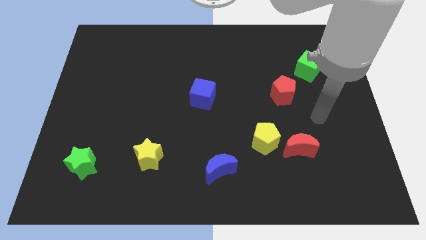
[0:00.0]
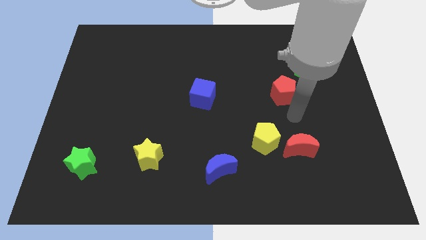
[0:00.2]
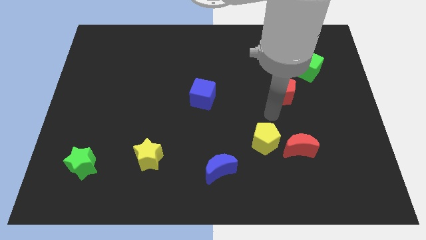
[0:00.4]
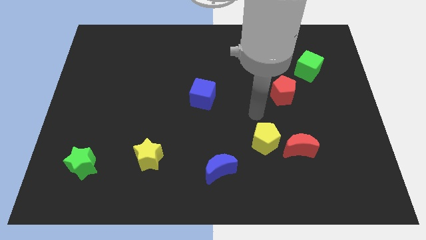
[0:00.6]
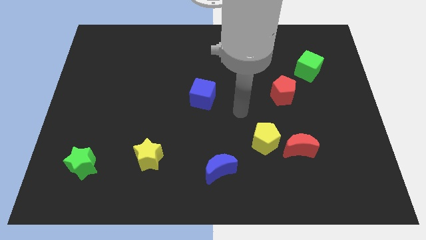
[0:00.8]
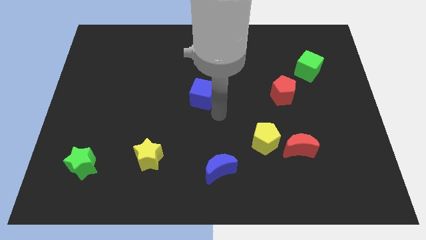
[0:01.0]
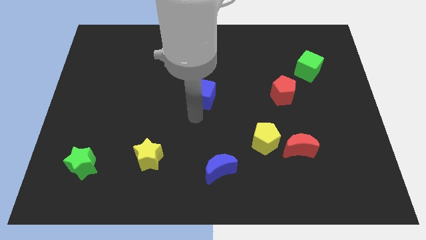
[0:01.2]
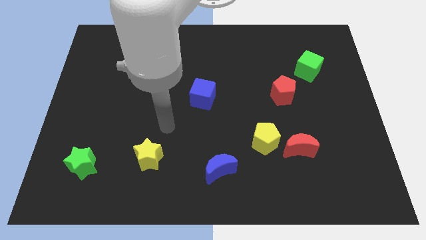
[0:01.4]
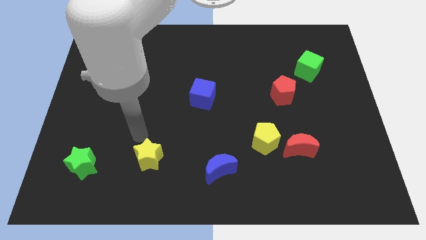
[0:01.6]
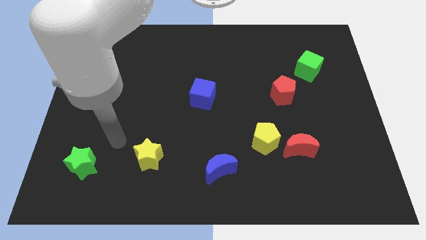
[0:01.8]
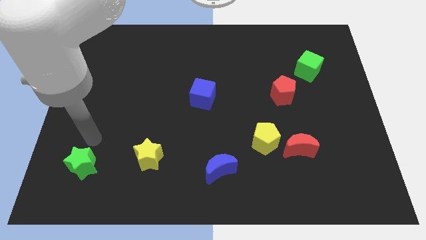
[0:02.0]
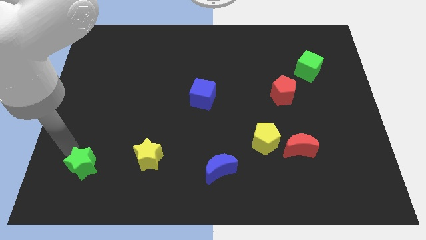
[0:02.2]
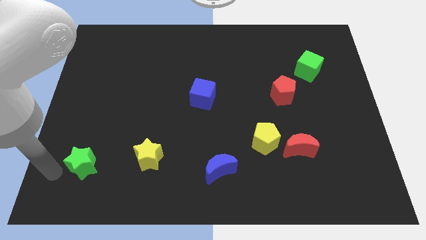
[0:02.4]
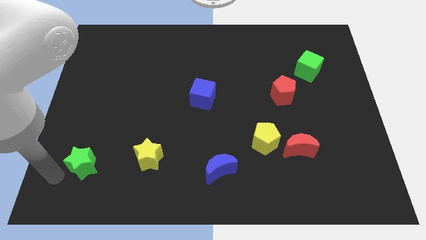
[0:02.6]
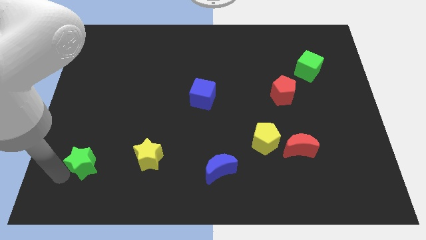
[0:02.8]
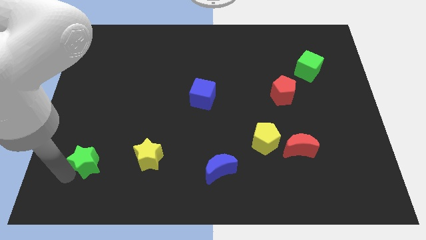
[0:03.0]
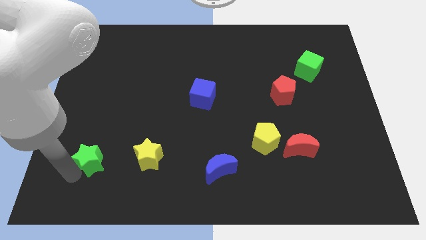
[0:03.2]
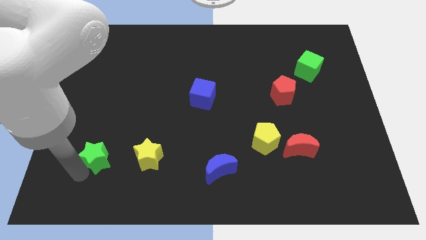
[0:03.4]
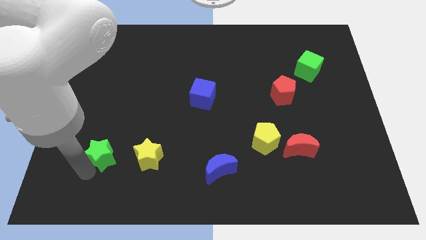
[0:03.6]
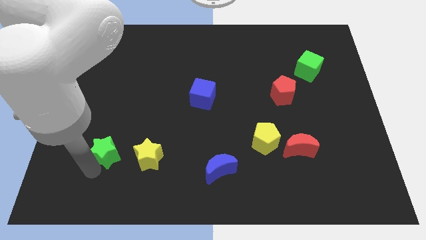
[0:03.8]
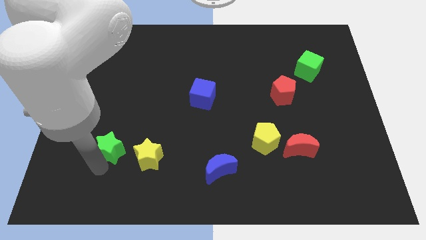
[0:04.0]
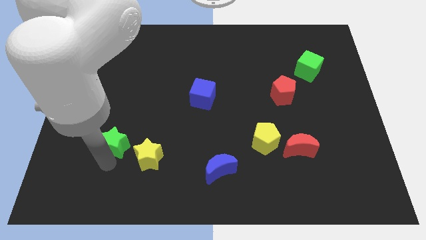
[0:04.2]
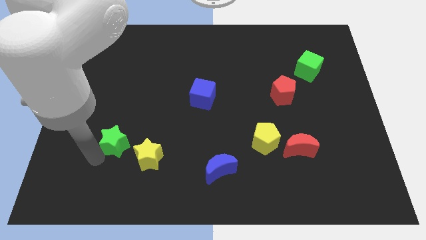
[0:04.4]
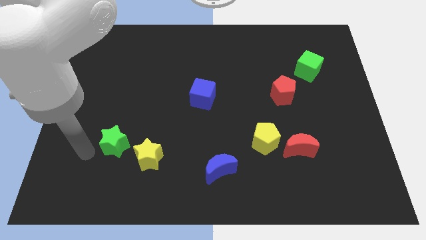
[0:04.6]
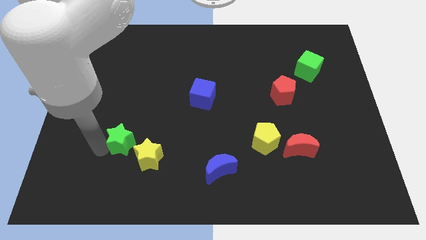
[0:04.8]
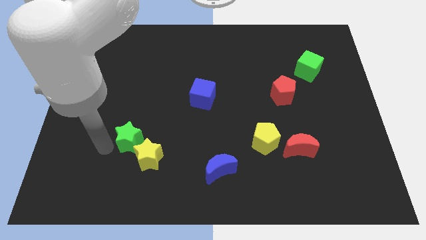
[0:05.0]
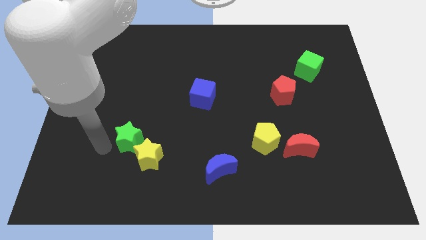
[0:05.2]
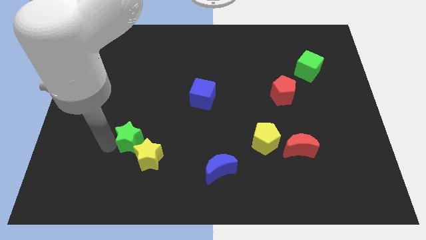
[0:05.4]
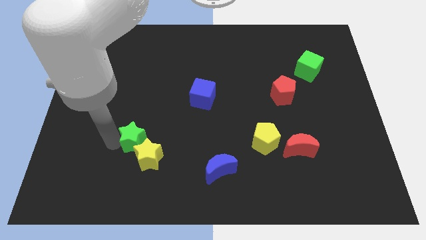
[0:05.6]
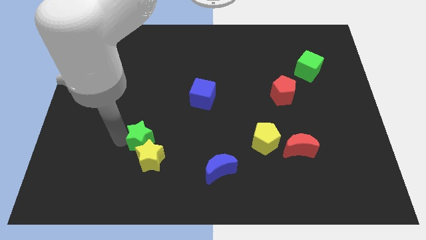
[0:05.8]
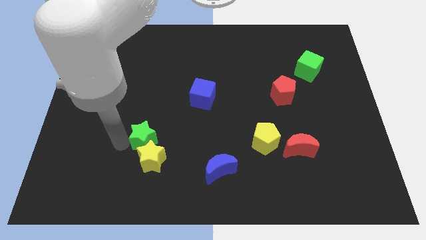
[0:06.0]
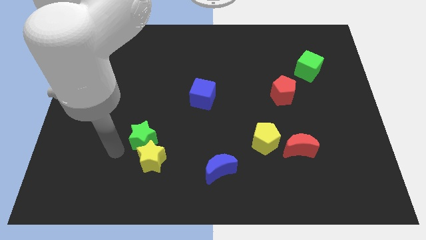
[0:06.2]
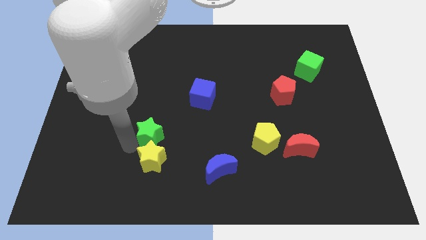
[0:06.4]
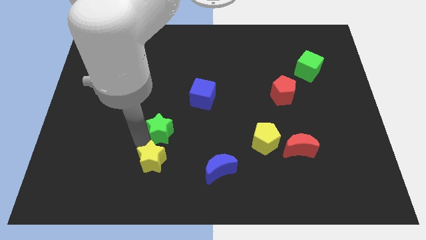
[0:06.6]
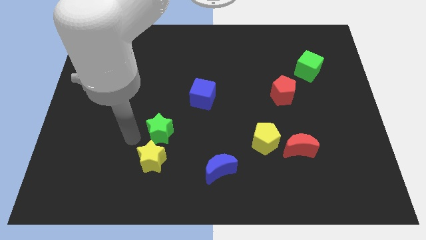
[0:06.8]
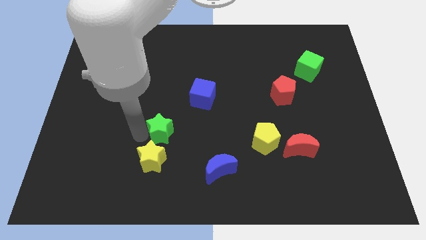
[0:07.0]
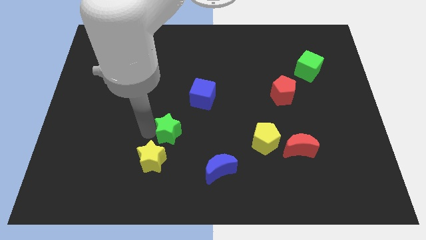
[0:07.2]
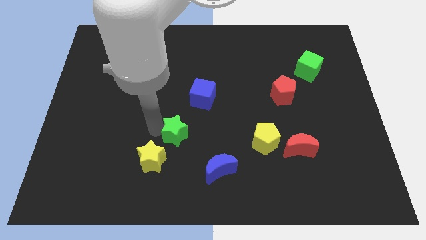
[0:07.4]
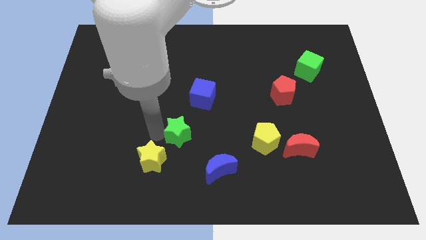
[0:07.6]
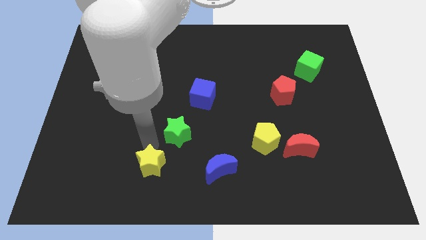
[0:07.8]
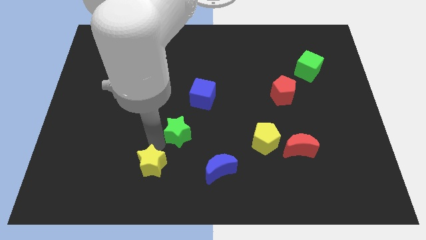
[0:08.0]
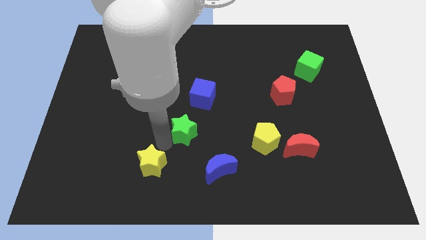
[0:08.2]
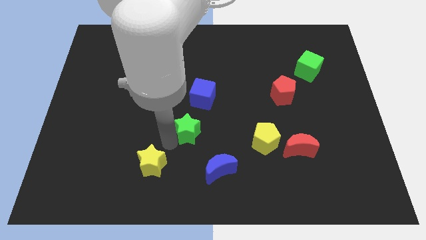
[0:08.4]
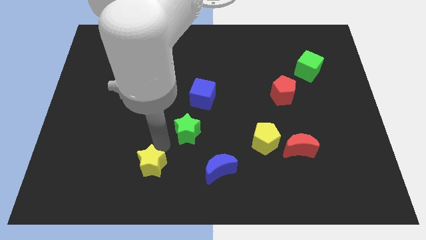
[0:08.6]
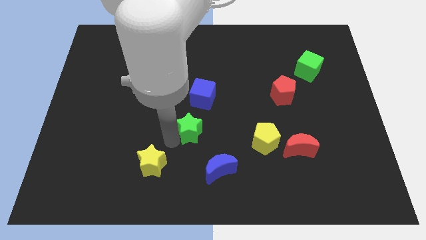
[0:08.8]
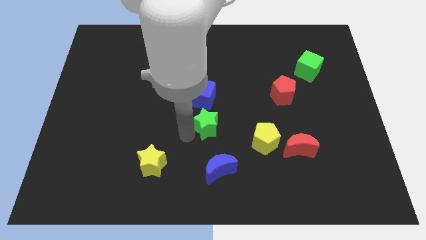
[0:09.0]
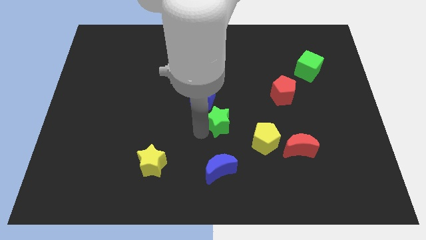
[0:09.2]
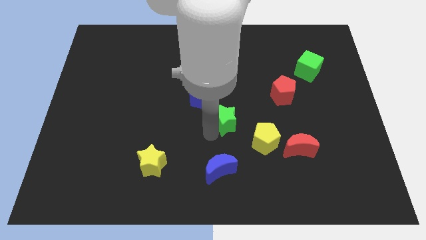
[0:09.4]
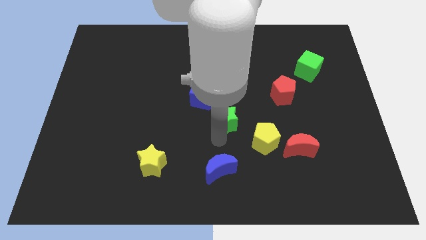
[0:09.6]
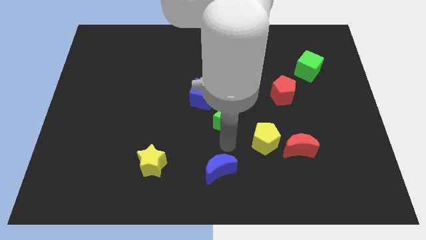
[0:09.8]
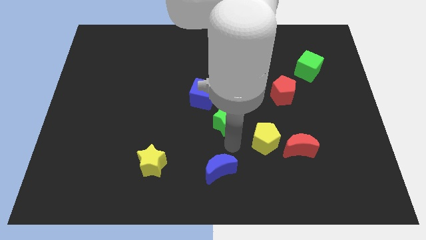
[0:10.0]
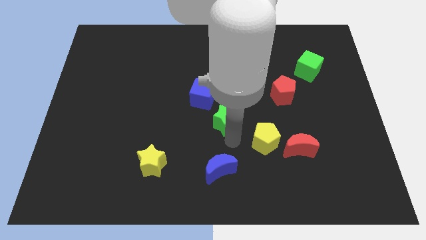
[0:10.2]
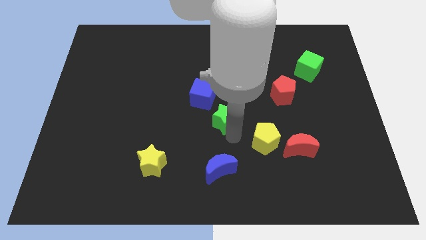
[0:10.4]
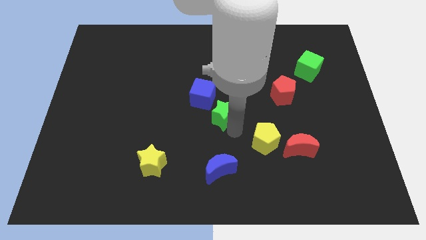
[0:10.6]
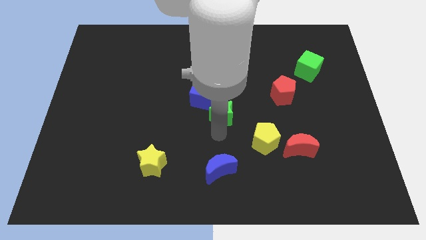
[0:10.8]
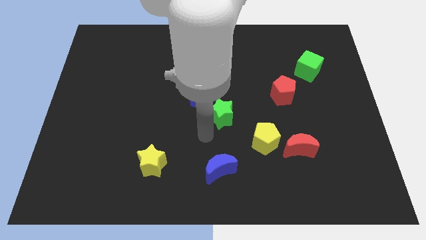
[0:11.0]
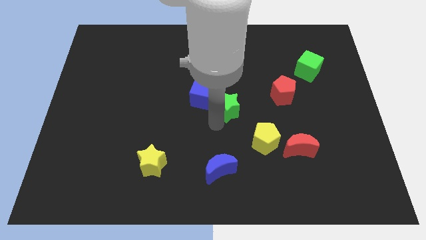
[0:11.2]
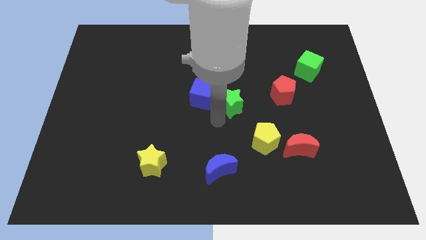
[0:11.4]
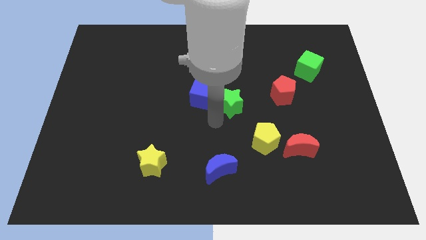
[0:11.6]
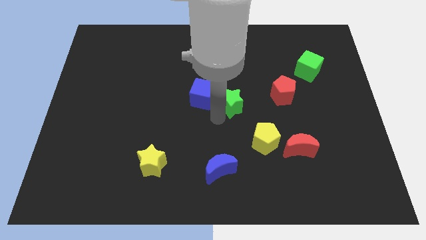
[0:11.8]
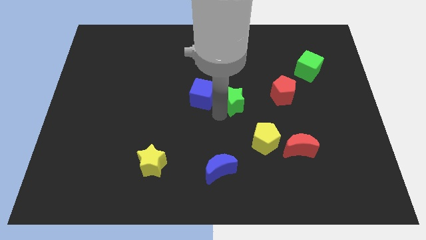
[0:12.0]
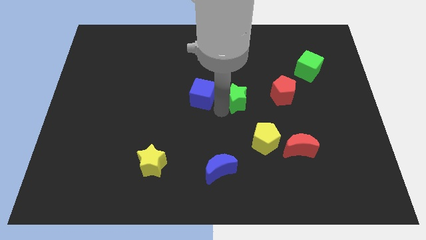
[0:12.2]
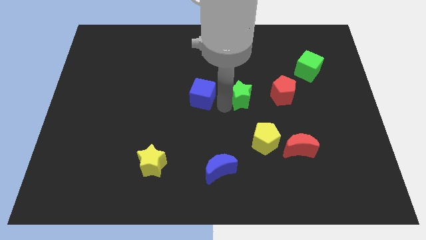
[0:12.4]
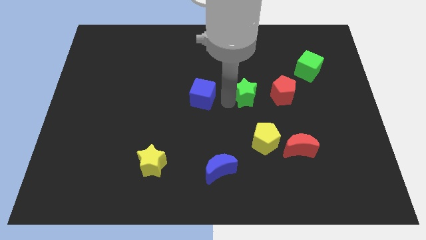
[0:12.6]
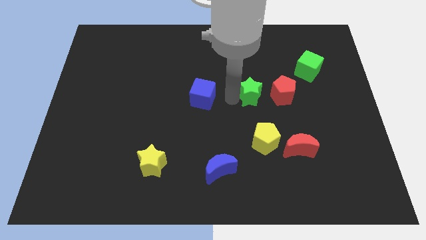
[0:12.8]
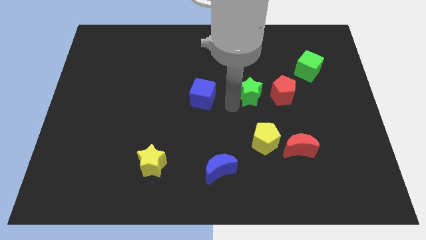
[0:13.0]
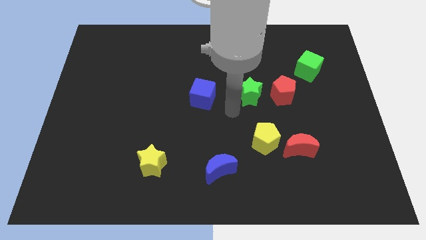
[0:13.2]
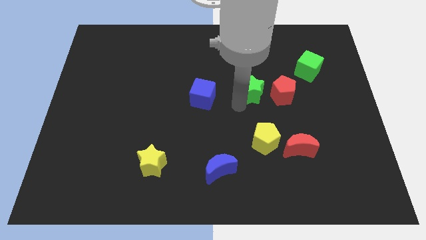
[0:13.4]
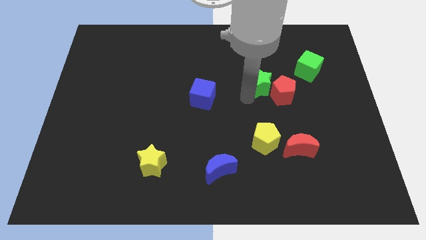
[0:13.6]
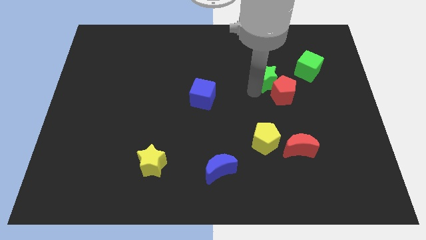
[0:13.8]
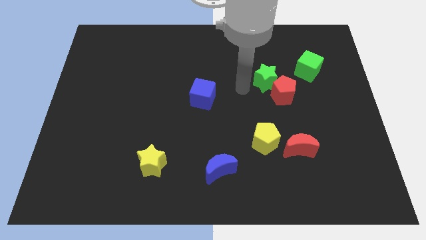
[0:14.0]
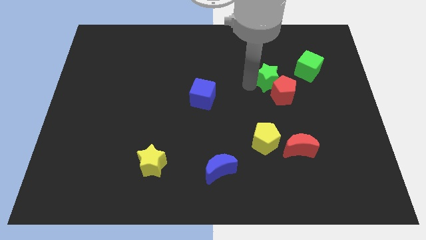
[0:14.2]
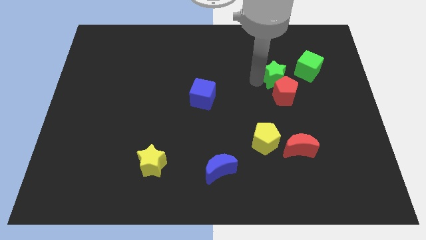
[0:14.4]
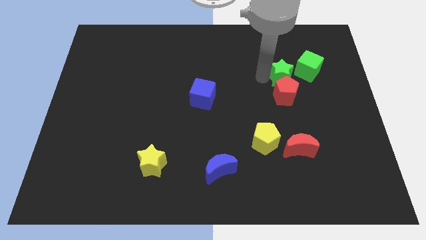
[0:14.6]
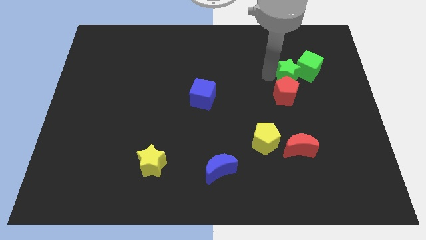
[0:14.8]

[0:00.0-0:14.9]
move the green star to the green cube
